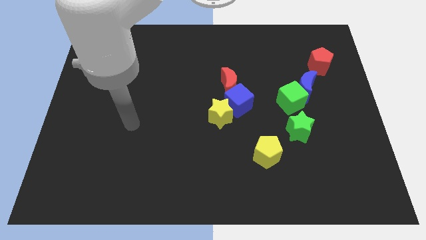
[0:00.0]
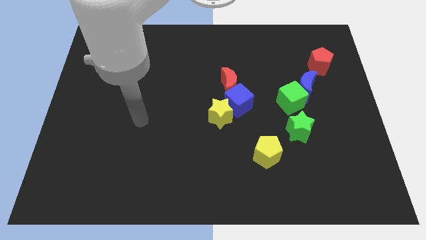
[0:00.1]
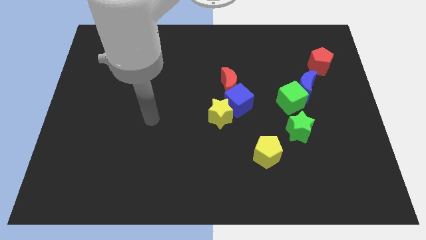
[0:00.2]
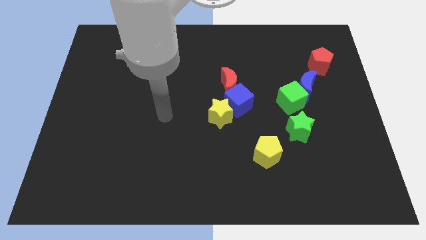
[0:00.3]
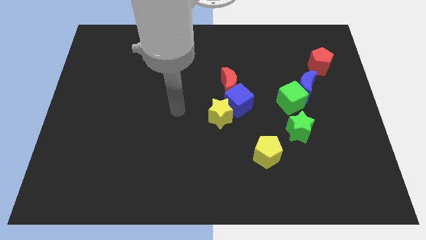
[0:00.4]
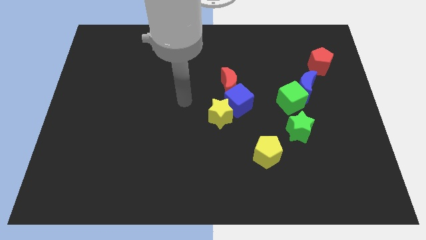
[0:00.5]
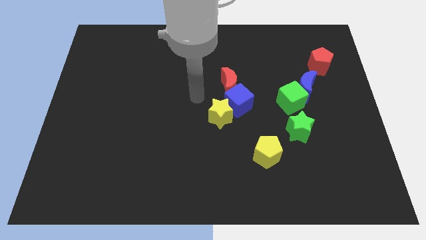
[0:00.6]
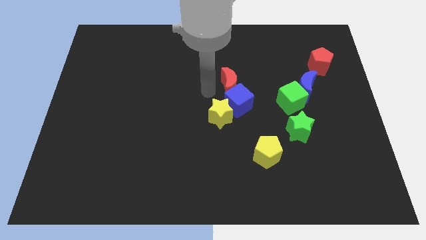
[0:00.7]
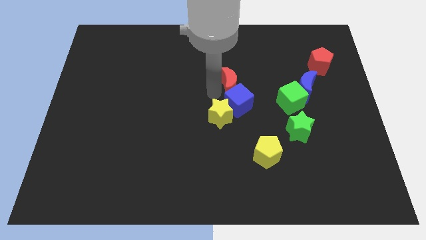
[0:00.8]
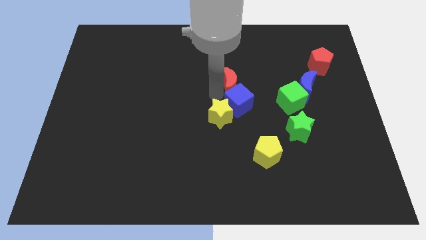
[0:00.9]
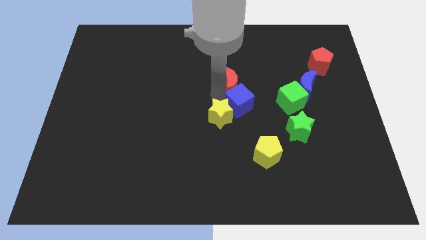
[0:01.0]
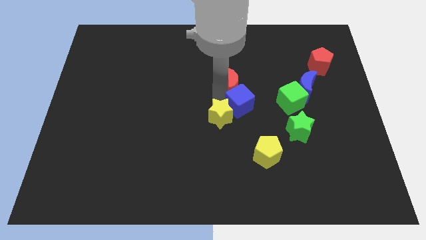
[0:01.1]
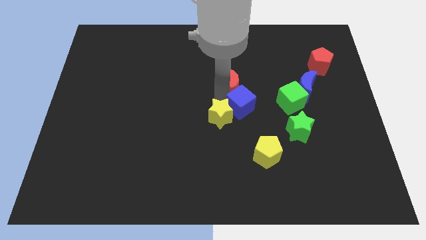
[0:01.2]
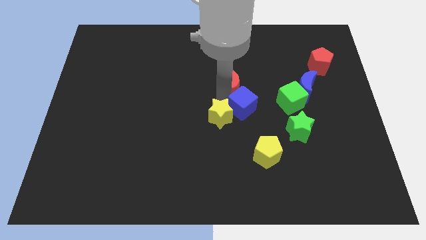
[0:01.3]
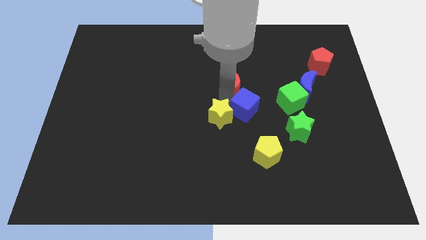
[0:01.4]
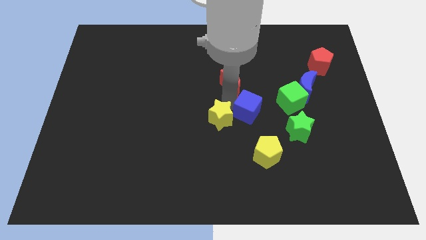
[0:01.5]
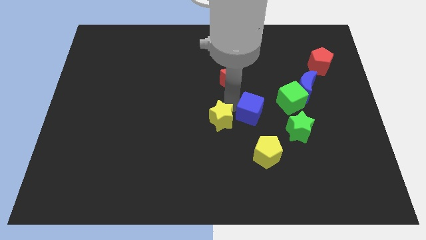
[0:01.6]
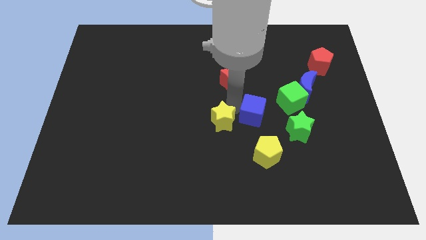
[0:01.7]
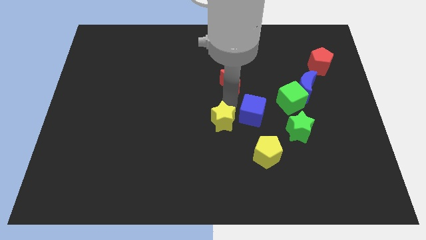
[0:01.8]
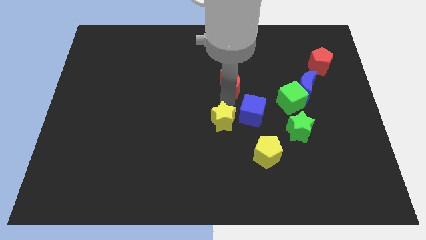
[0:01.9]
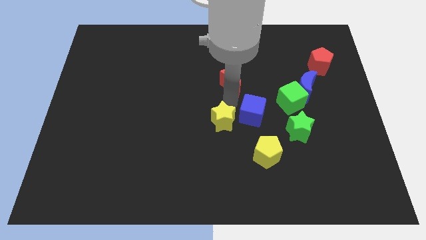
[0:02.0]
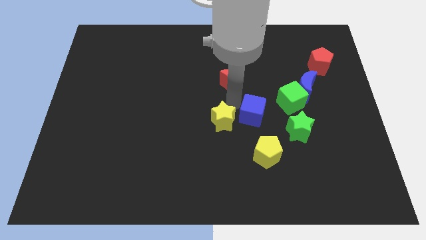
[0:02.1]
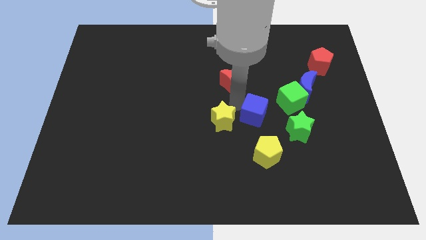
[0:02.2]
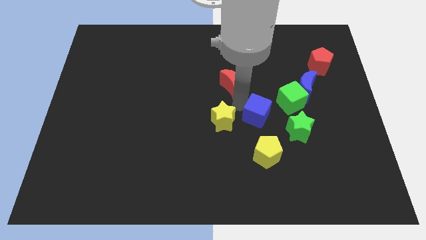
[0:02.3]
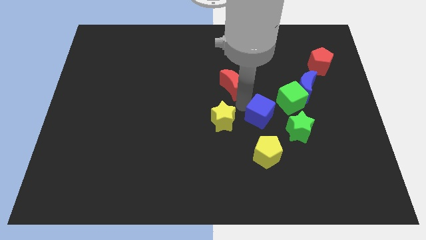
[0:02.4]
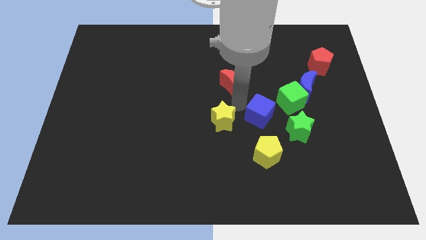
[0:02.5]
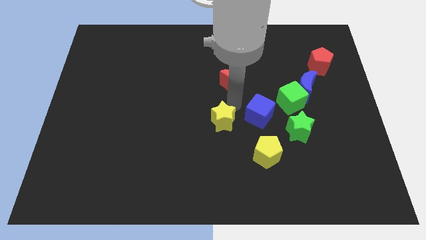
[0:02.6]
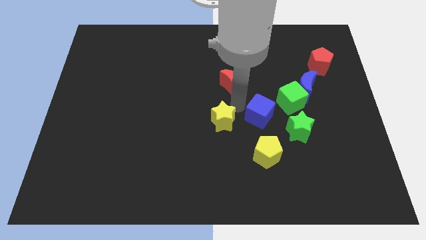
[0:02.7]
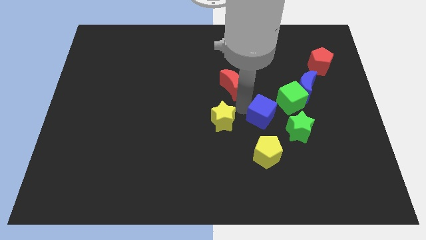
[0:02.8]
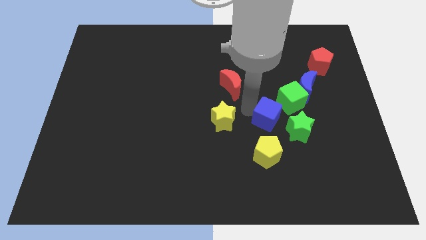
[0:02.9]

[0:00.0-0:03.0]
move the blue cube away from the red moon and yellow star

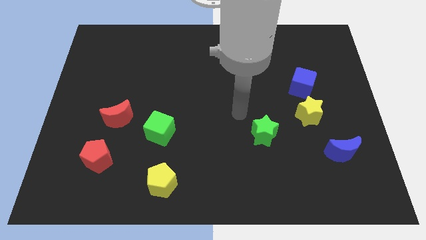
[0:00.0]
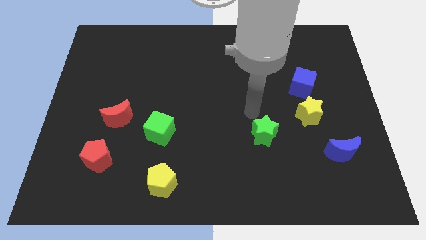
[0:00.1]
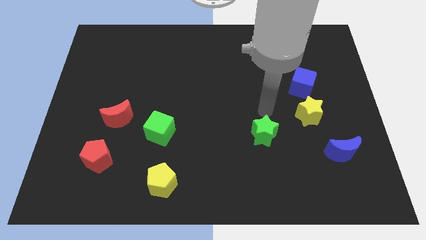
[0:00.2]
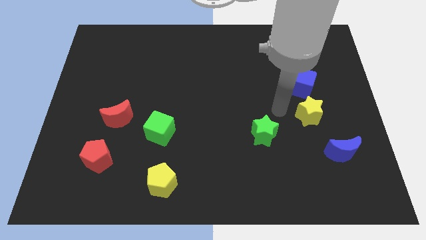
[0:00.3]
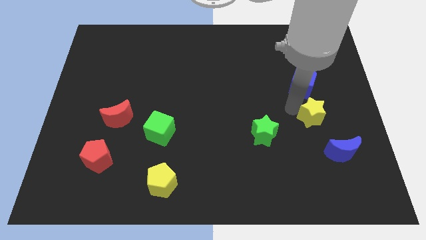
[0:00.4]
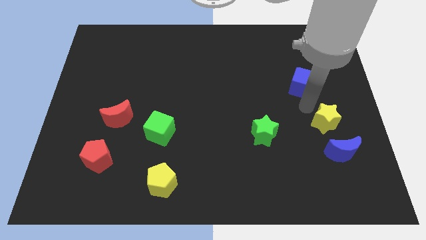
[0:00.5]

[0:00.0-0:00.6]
separate the blue cube from the yellow star

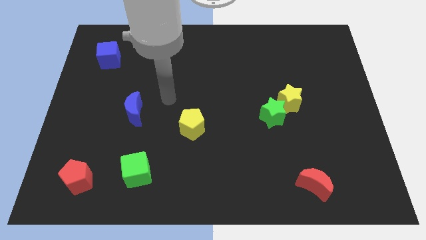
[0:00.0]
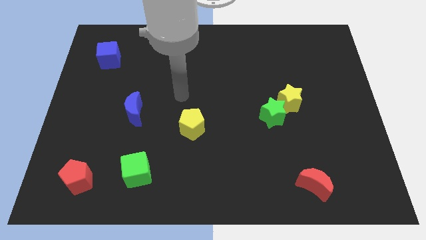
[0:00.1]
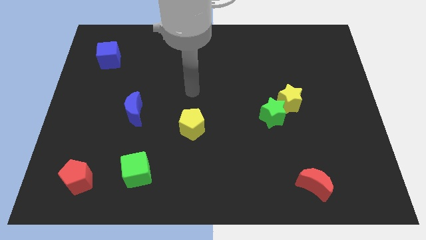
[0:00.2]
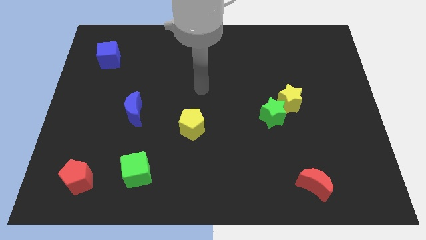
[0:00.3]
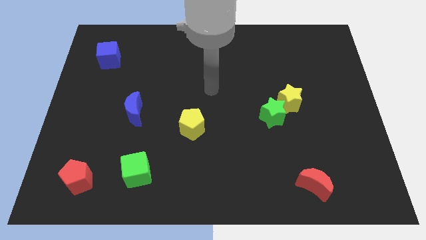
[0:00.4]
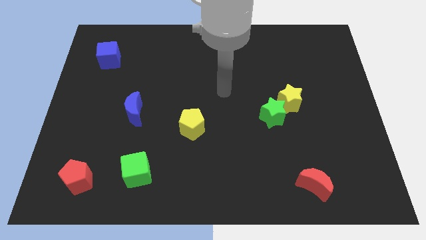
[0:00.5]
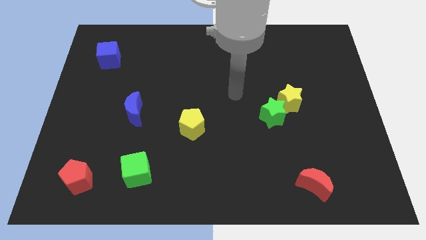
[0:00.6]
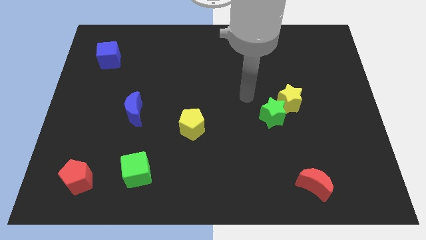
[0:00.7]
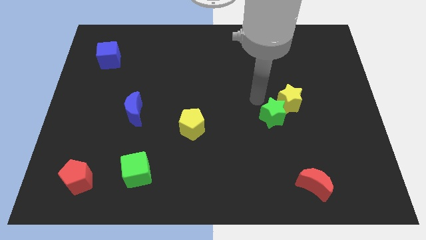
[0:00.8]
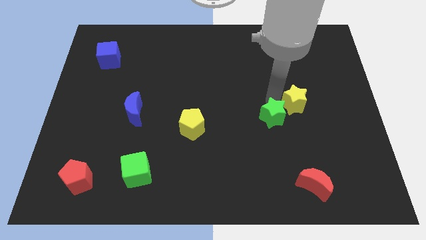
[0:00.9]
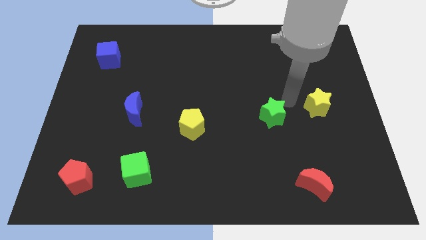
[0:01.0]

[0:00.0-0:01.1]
pull the green star apart from the yellow star

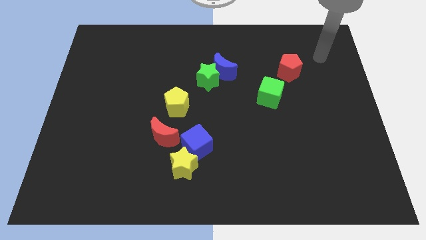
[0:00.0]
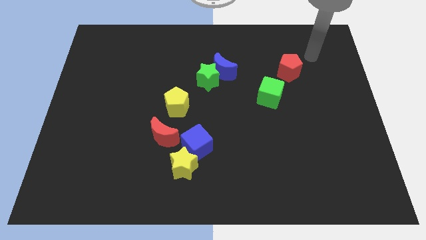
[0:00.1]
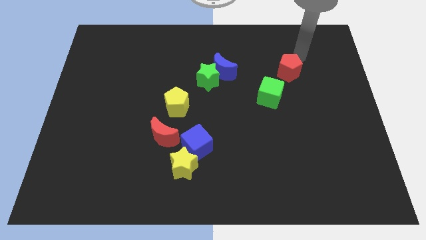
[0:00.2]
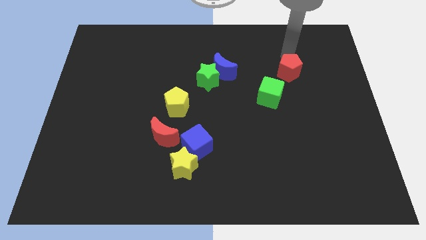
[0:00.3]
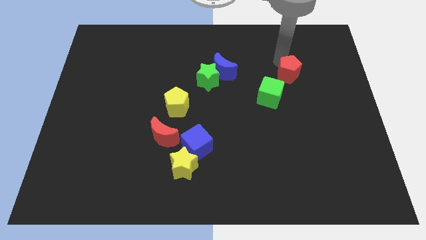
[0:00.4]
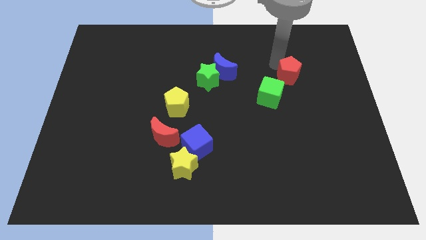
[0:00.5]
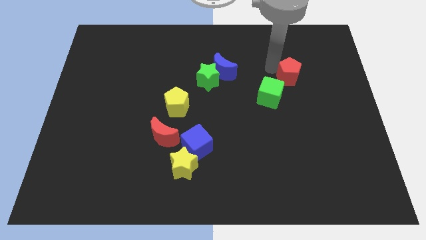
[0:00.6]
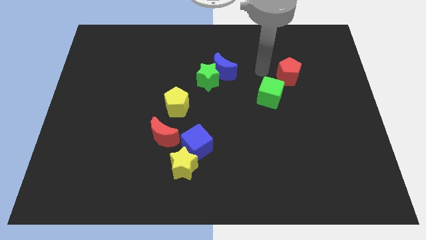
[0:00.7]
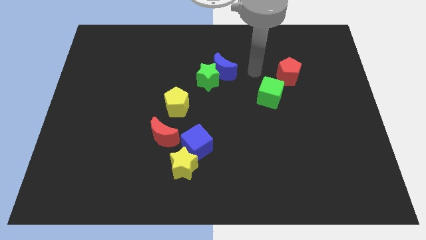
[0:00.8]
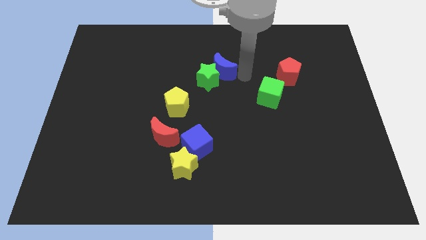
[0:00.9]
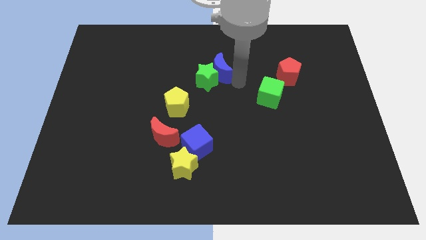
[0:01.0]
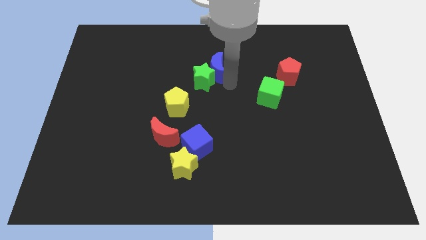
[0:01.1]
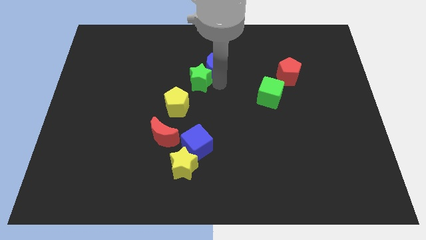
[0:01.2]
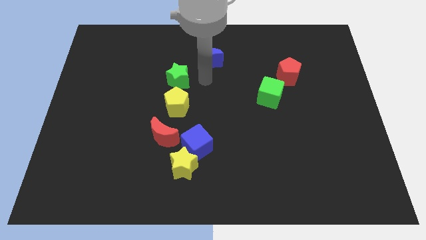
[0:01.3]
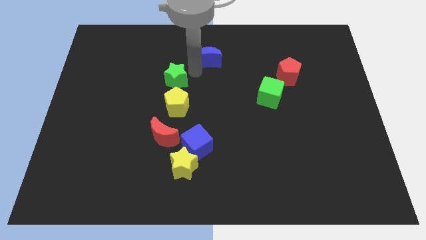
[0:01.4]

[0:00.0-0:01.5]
separate the blue moon from the green star

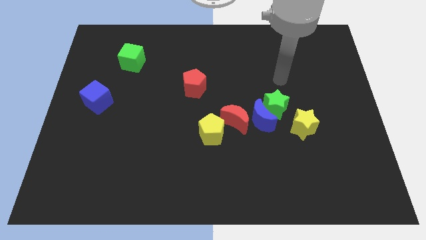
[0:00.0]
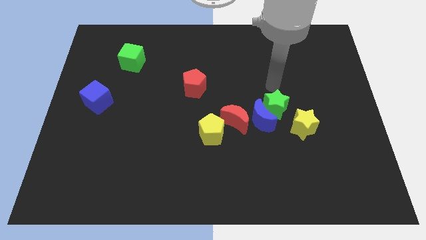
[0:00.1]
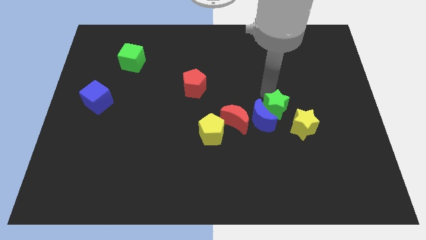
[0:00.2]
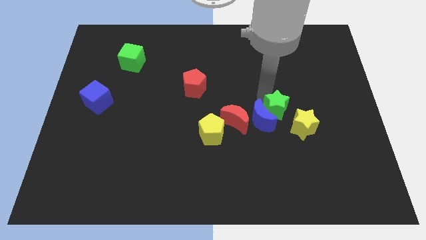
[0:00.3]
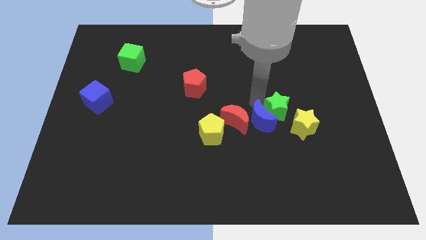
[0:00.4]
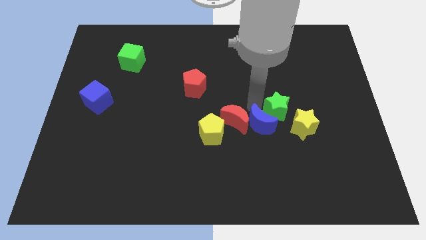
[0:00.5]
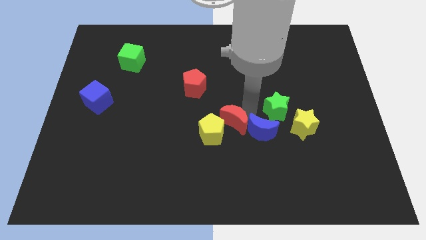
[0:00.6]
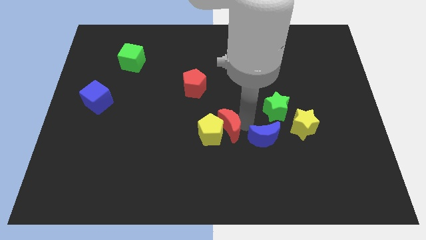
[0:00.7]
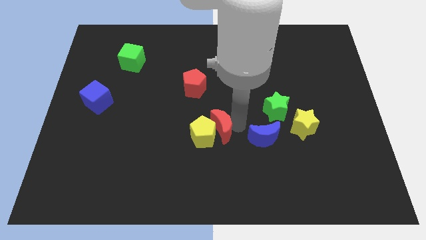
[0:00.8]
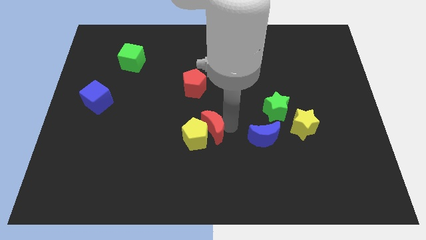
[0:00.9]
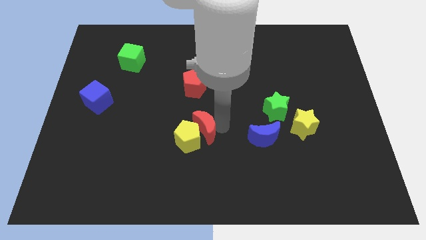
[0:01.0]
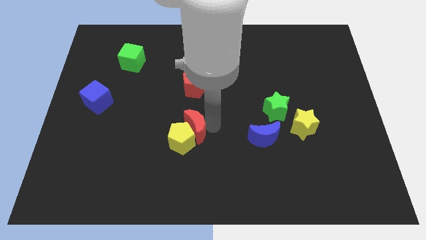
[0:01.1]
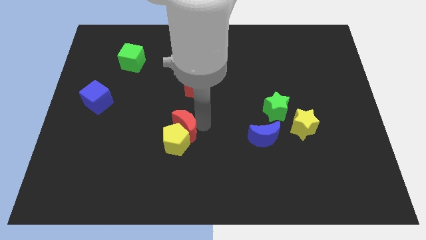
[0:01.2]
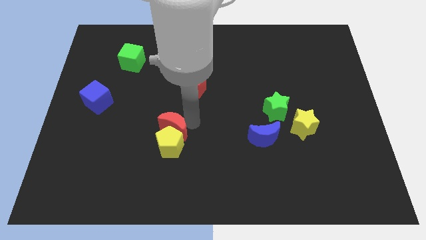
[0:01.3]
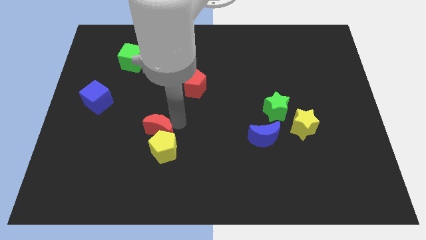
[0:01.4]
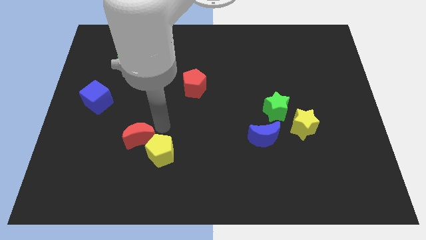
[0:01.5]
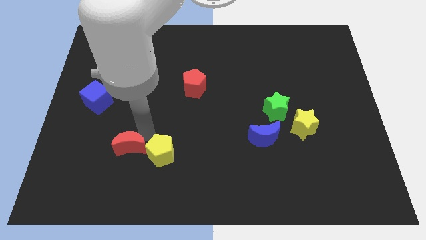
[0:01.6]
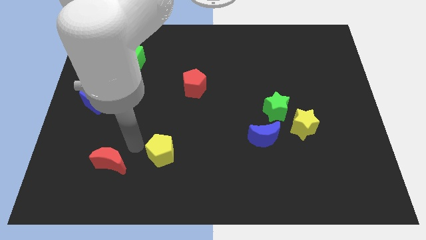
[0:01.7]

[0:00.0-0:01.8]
pull the yellow pentagon apart from the red moon

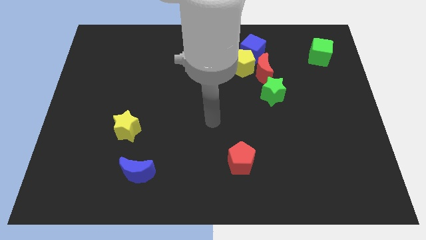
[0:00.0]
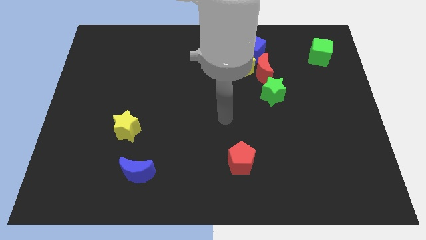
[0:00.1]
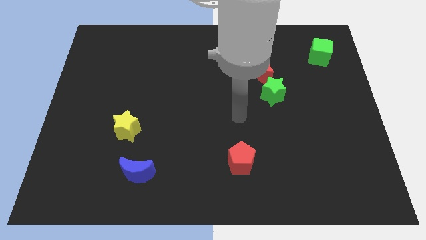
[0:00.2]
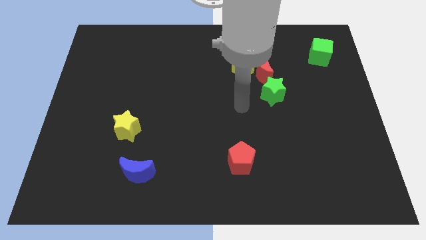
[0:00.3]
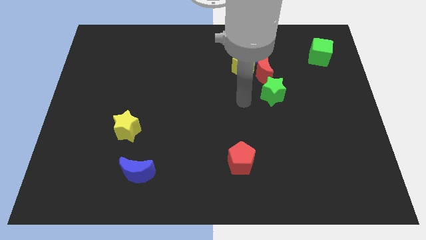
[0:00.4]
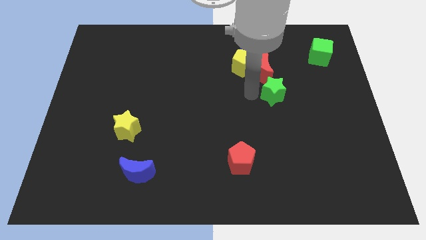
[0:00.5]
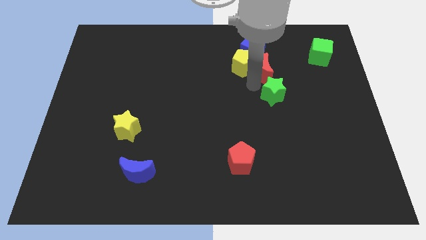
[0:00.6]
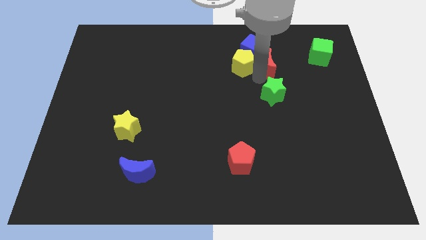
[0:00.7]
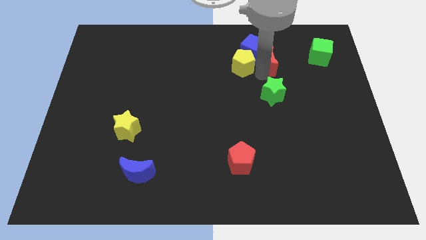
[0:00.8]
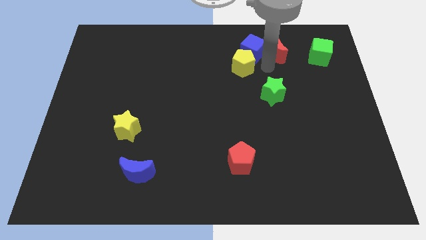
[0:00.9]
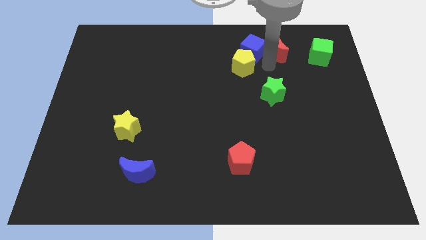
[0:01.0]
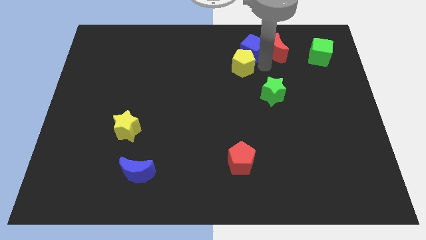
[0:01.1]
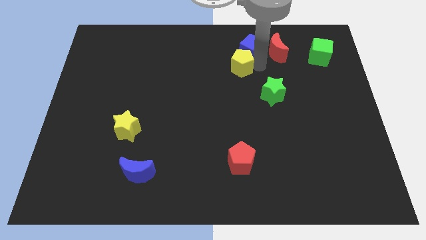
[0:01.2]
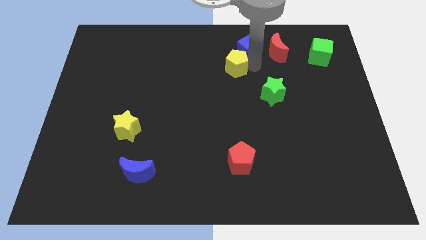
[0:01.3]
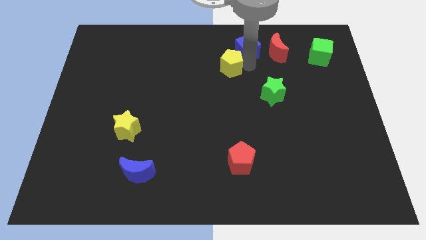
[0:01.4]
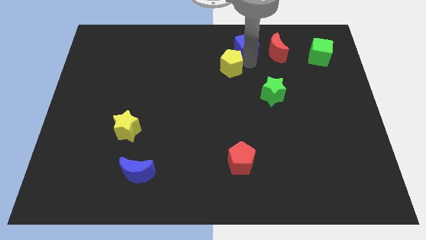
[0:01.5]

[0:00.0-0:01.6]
separate the yellow pentagon from the red moon and blue cube
